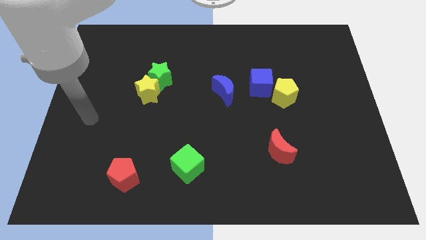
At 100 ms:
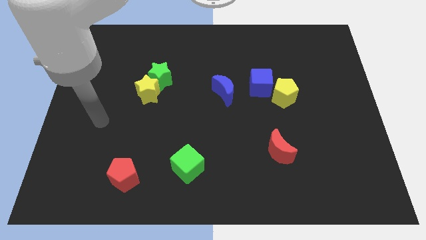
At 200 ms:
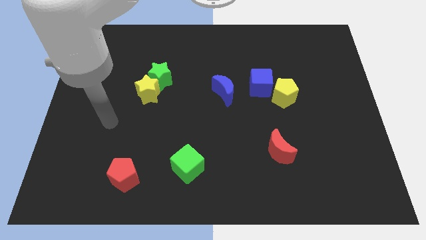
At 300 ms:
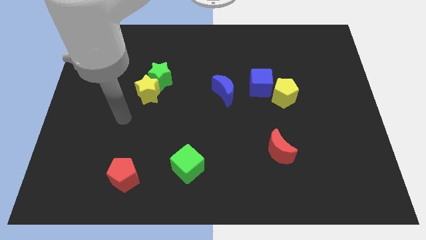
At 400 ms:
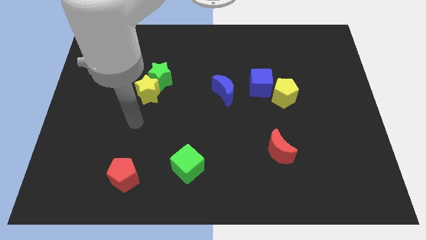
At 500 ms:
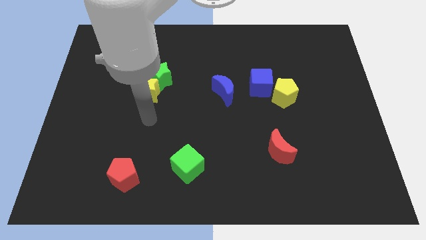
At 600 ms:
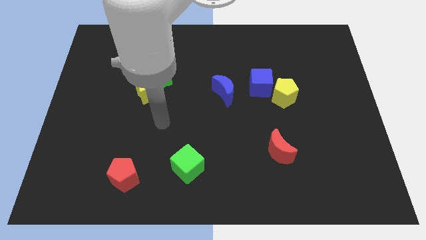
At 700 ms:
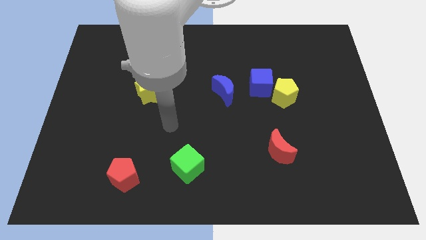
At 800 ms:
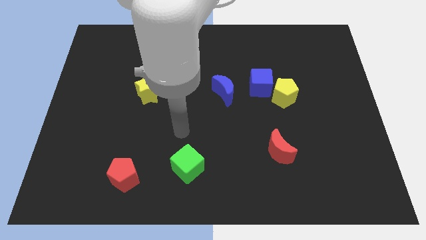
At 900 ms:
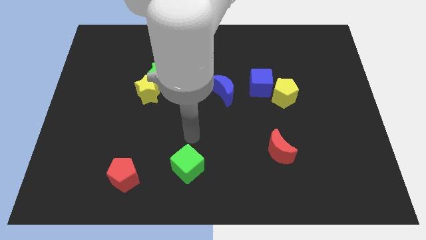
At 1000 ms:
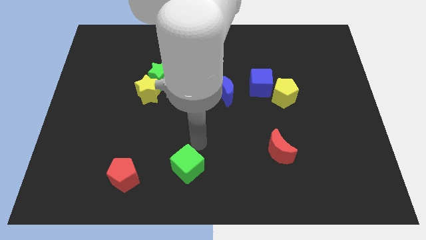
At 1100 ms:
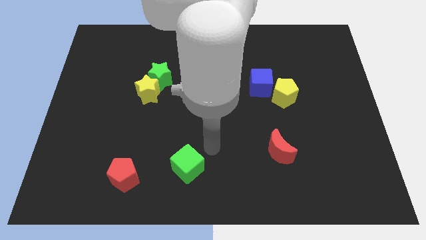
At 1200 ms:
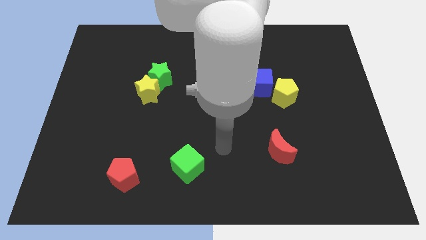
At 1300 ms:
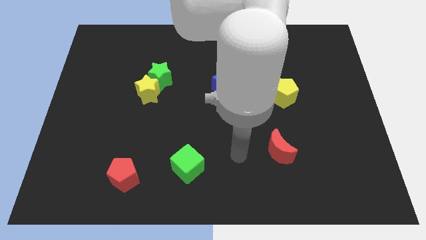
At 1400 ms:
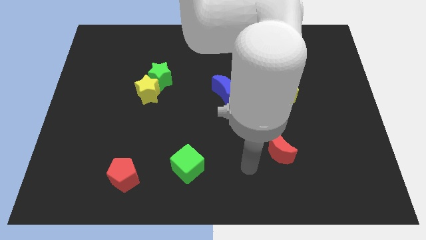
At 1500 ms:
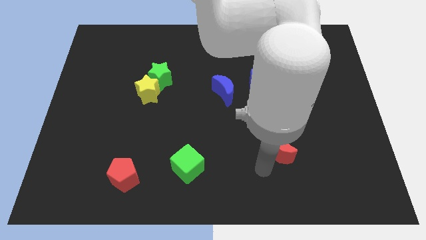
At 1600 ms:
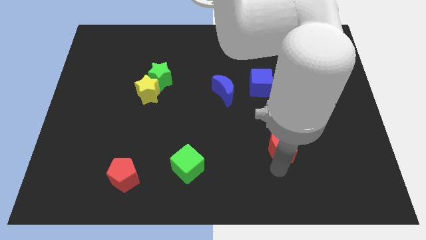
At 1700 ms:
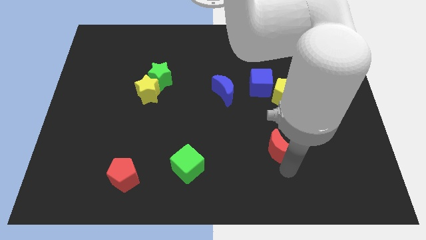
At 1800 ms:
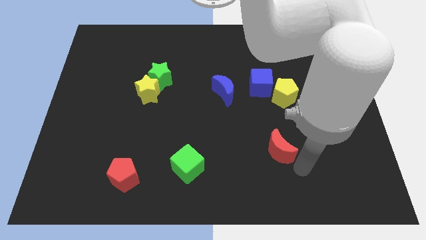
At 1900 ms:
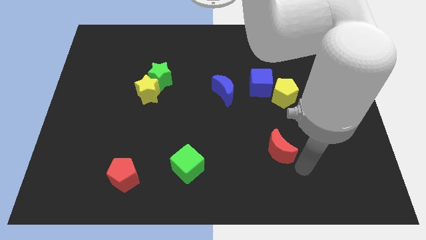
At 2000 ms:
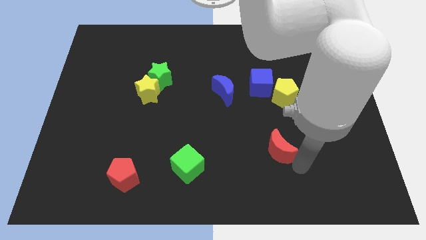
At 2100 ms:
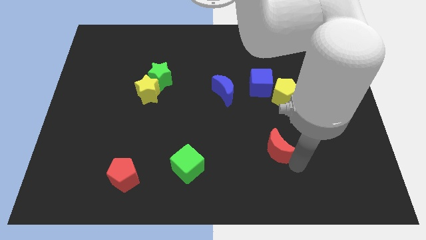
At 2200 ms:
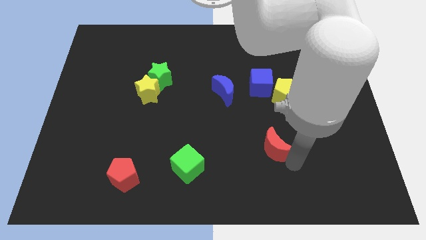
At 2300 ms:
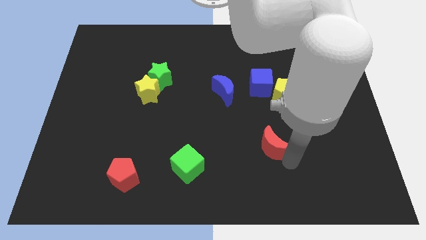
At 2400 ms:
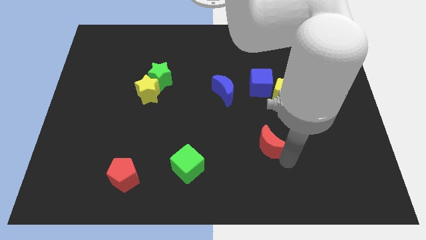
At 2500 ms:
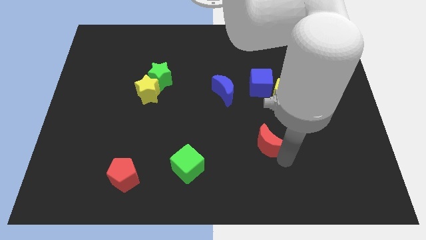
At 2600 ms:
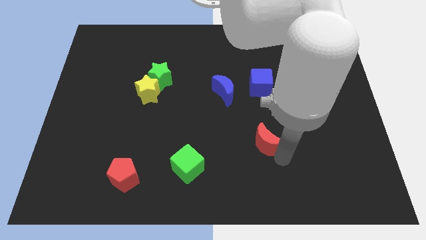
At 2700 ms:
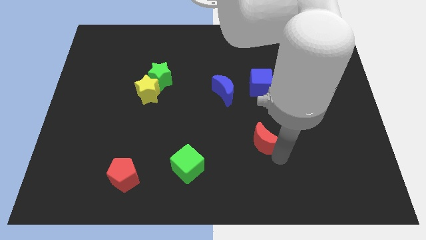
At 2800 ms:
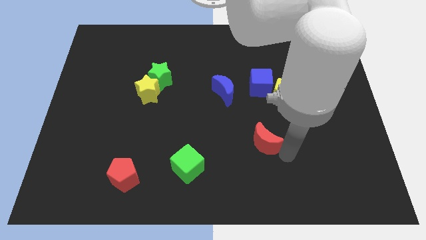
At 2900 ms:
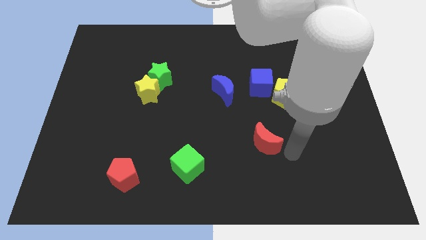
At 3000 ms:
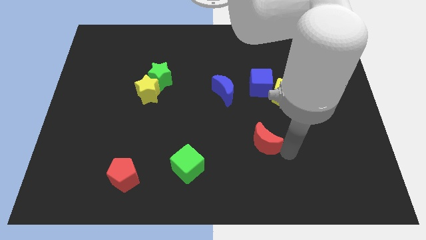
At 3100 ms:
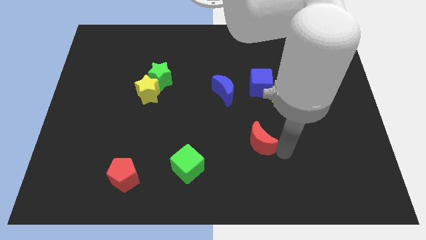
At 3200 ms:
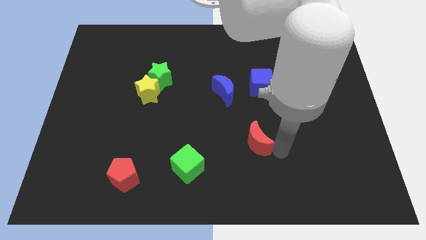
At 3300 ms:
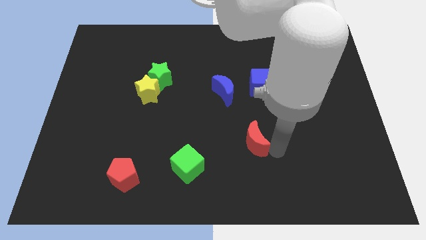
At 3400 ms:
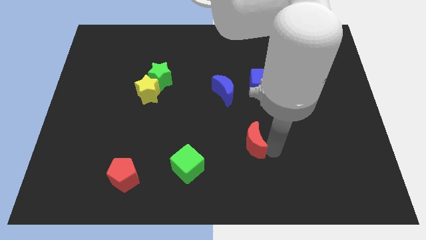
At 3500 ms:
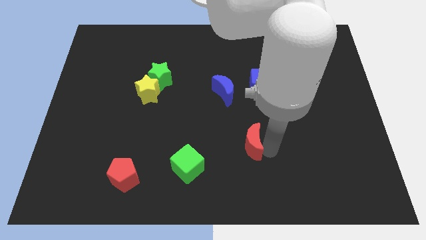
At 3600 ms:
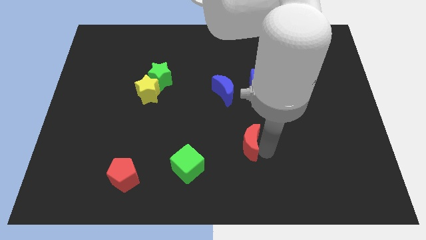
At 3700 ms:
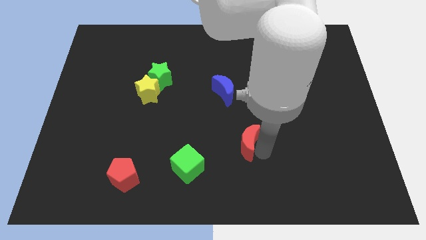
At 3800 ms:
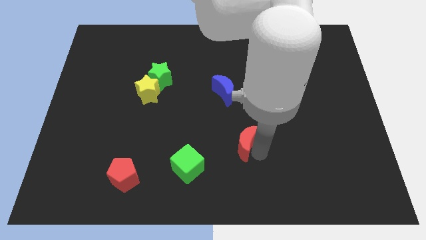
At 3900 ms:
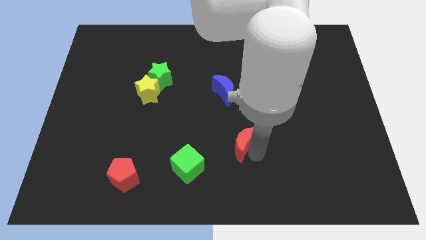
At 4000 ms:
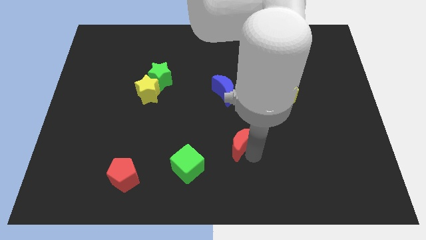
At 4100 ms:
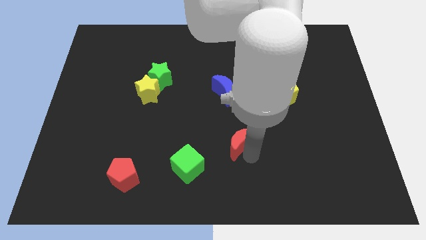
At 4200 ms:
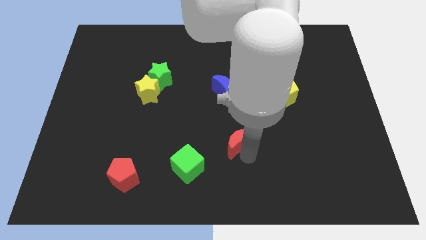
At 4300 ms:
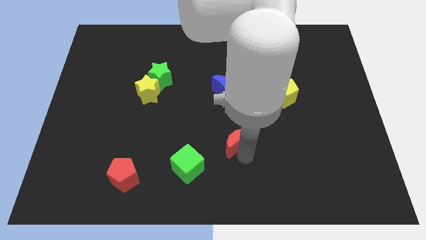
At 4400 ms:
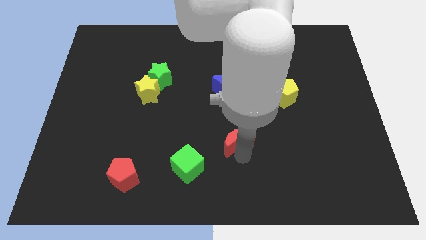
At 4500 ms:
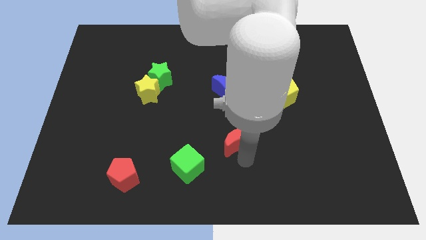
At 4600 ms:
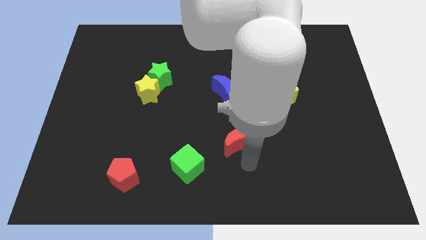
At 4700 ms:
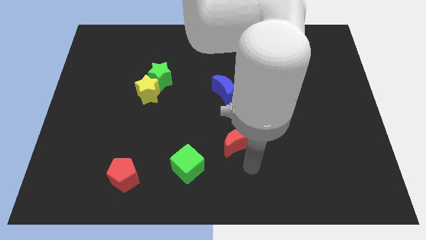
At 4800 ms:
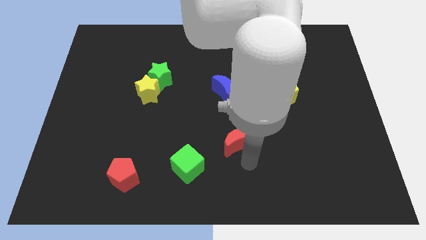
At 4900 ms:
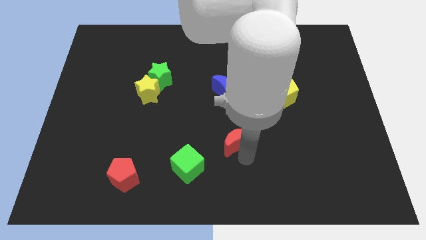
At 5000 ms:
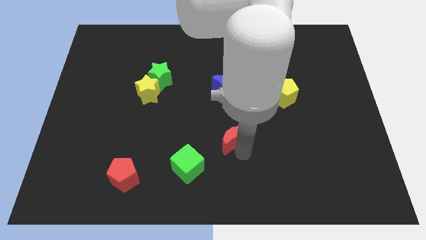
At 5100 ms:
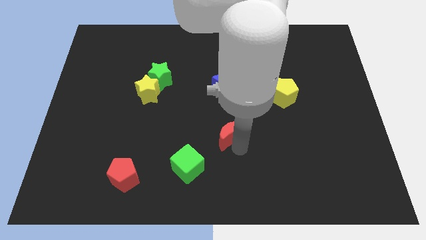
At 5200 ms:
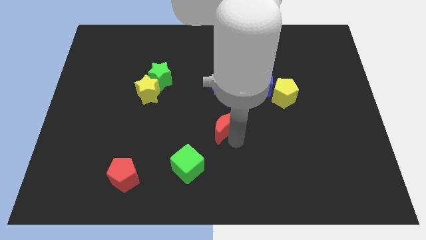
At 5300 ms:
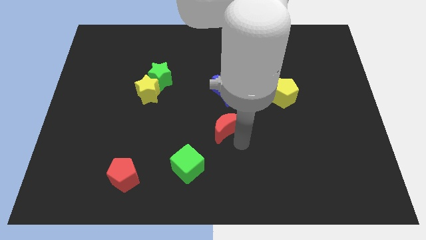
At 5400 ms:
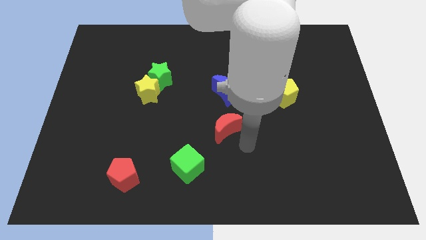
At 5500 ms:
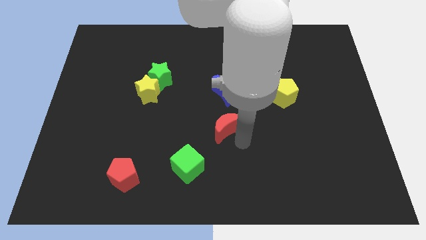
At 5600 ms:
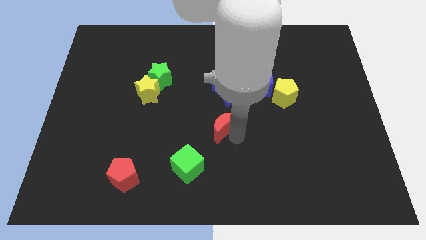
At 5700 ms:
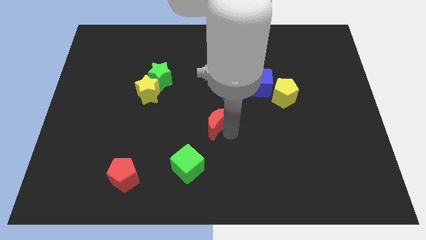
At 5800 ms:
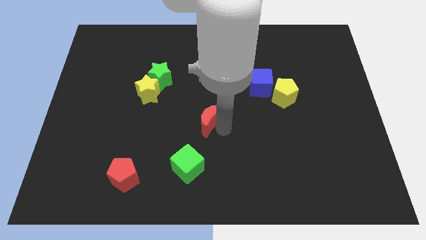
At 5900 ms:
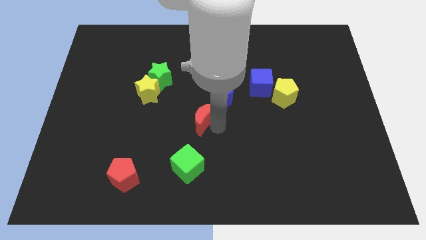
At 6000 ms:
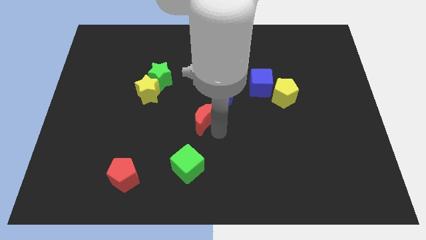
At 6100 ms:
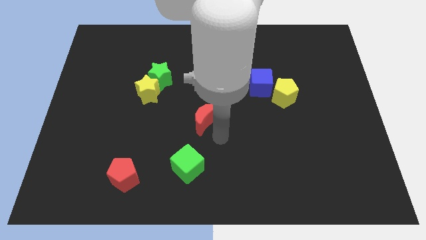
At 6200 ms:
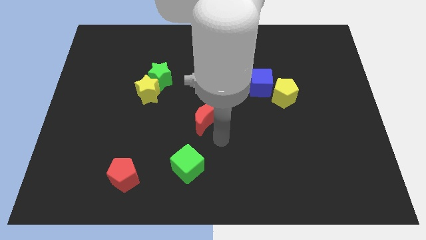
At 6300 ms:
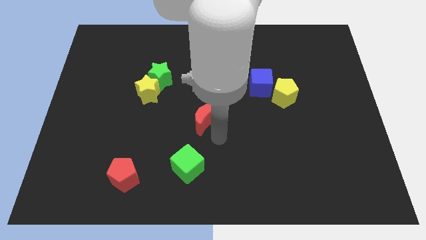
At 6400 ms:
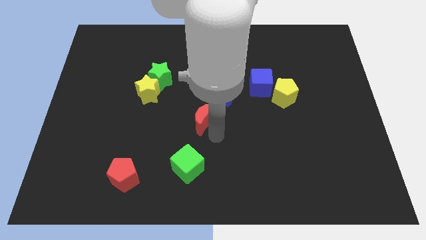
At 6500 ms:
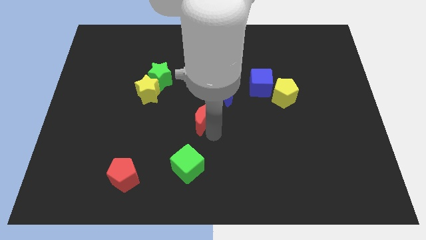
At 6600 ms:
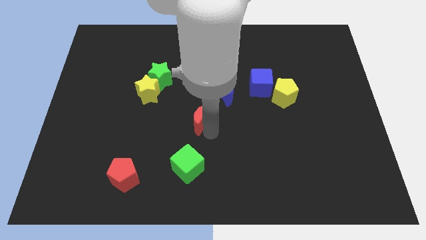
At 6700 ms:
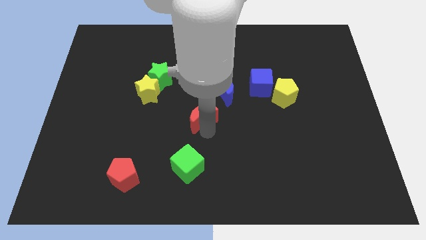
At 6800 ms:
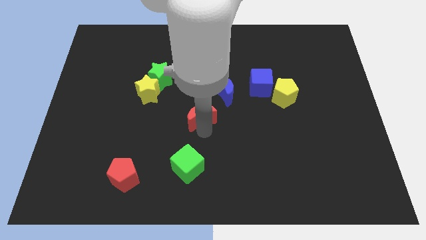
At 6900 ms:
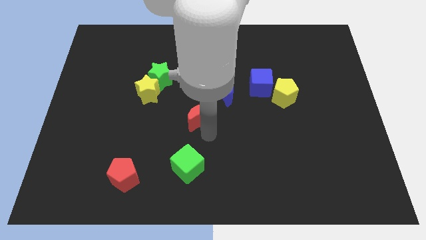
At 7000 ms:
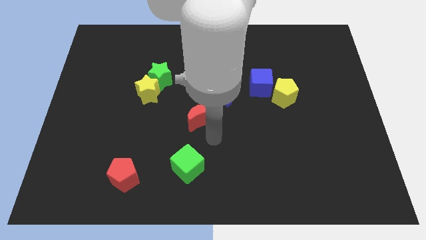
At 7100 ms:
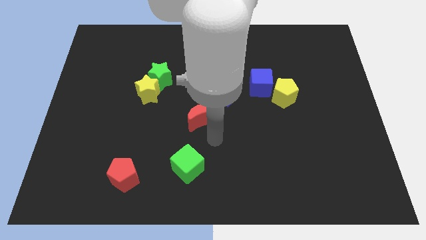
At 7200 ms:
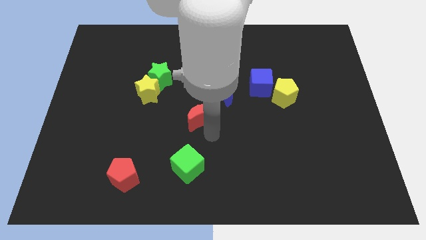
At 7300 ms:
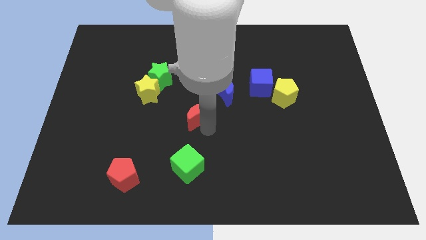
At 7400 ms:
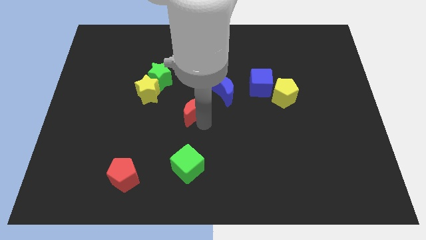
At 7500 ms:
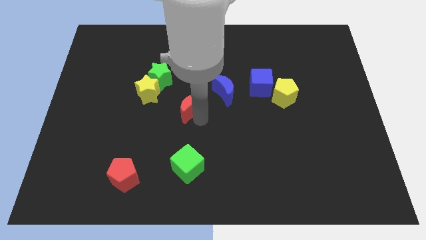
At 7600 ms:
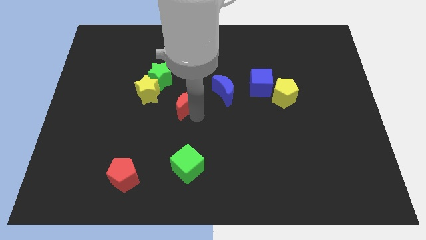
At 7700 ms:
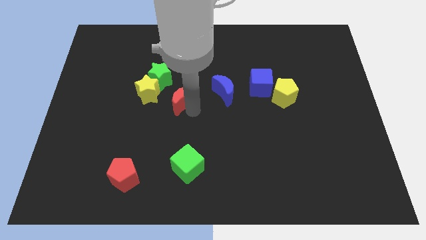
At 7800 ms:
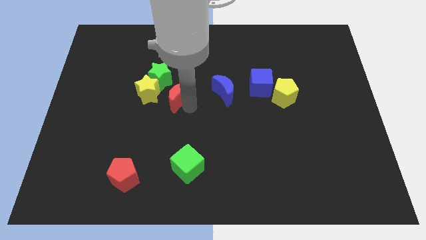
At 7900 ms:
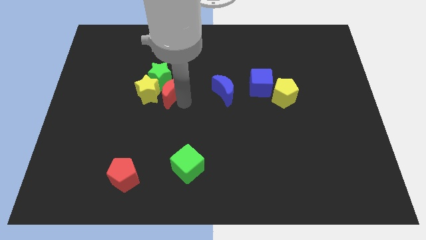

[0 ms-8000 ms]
push the red moon next to the green star
